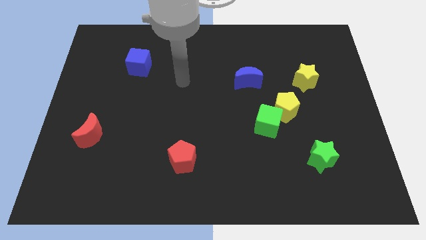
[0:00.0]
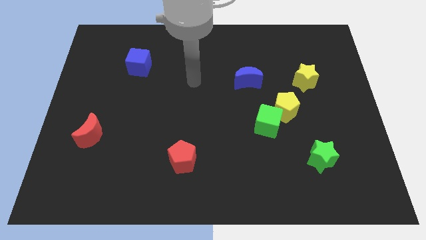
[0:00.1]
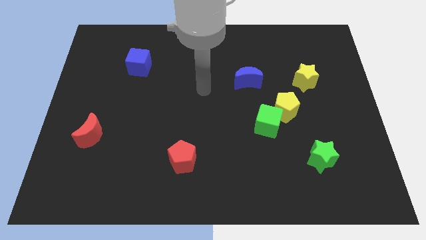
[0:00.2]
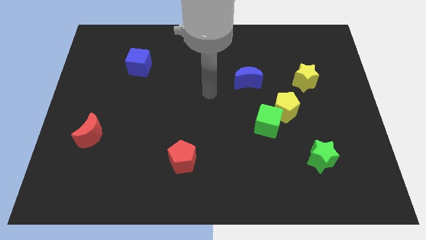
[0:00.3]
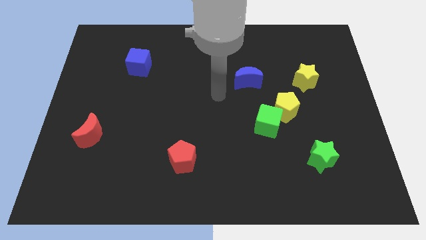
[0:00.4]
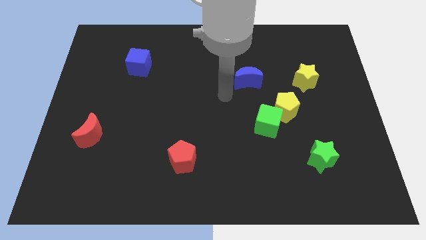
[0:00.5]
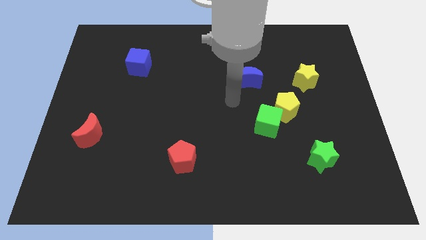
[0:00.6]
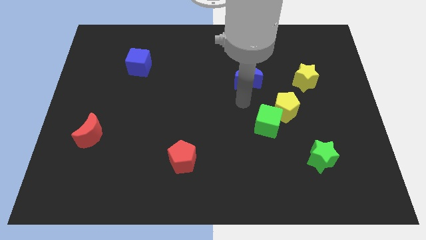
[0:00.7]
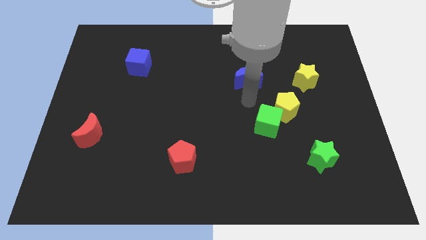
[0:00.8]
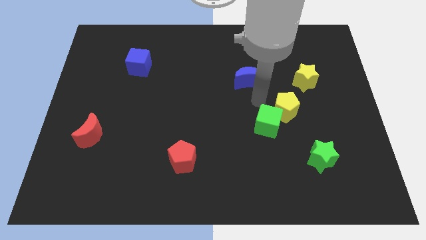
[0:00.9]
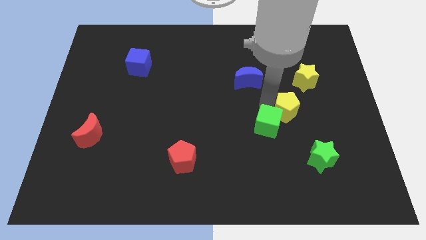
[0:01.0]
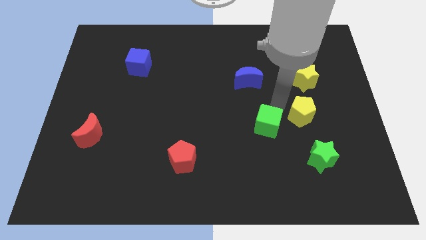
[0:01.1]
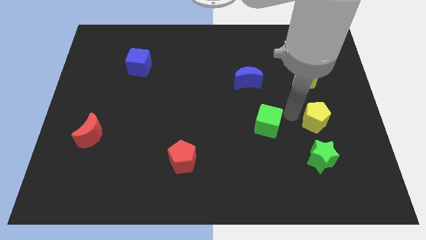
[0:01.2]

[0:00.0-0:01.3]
separate the green cube from the yellow pentagon

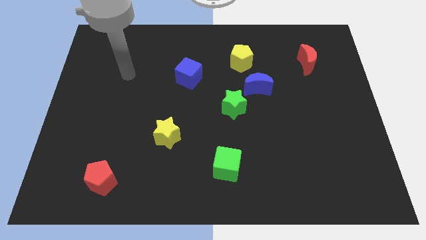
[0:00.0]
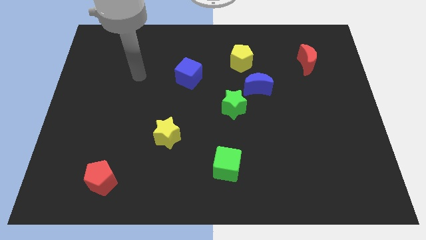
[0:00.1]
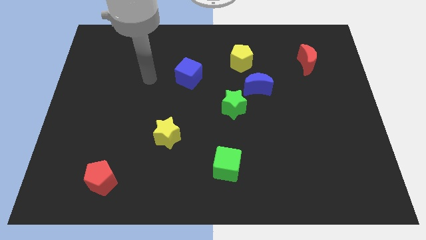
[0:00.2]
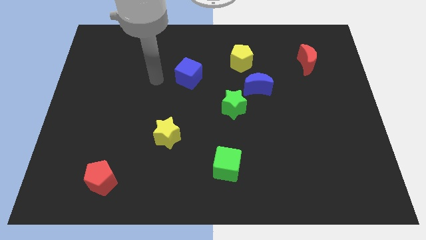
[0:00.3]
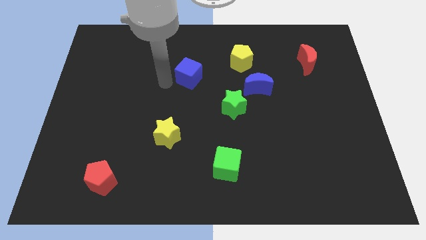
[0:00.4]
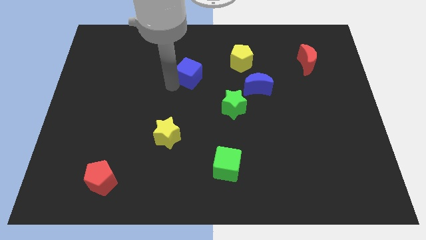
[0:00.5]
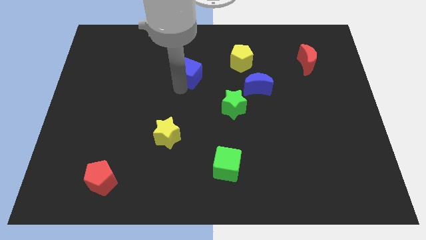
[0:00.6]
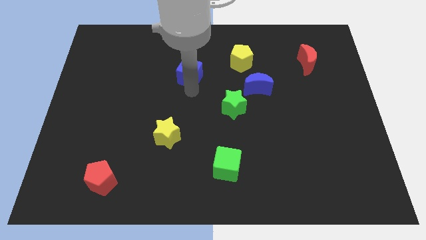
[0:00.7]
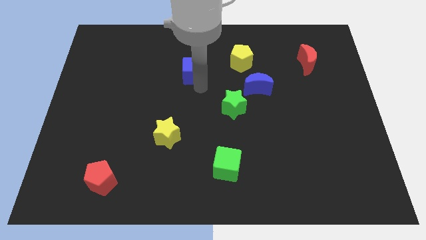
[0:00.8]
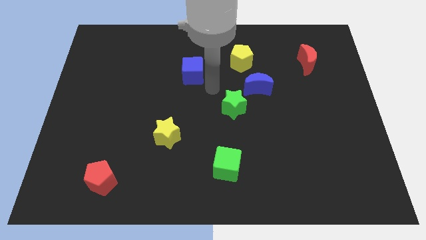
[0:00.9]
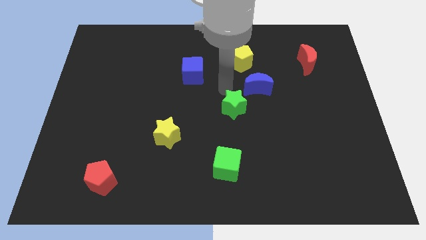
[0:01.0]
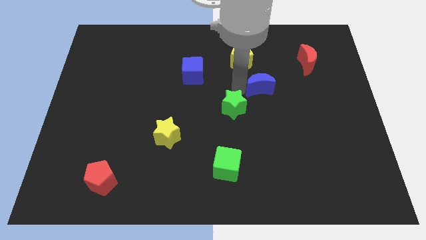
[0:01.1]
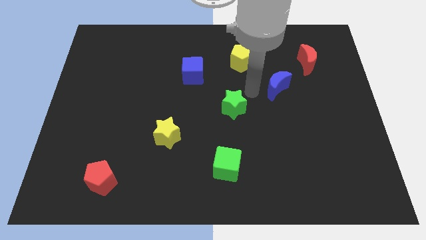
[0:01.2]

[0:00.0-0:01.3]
separate the green star from the blue moon

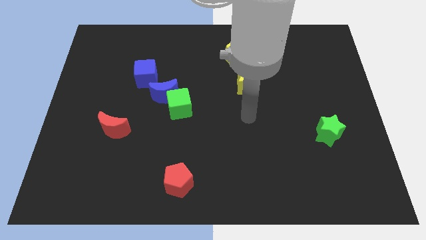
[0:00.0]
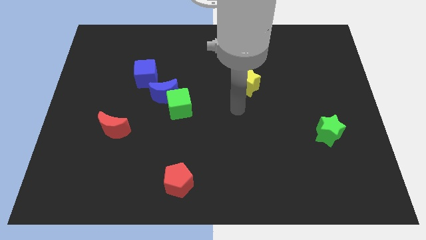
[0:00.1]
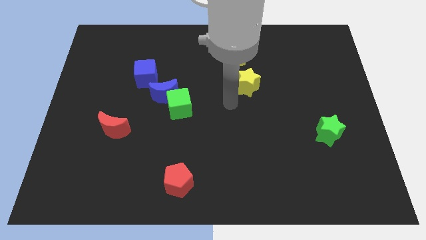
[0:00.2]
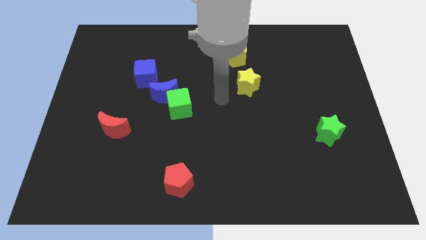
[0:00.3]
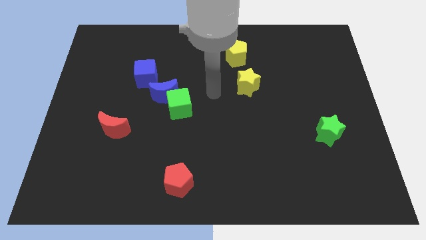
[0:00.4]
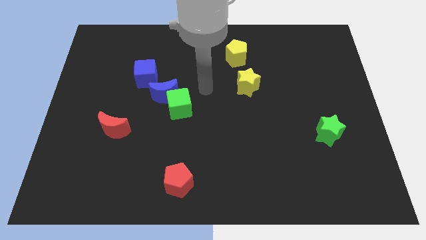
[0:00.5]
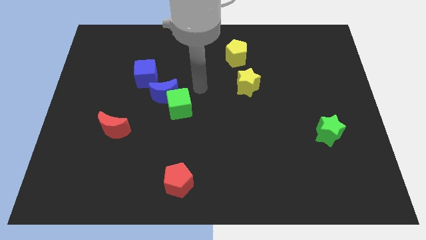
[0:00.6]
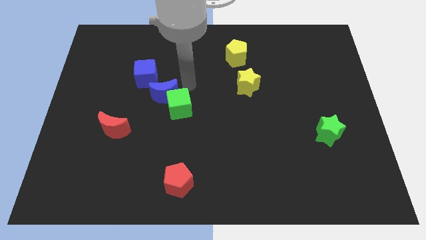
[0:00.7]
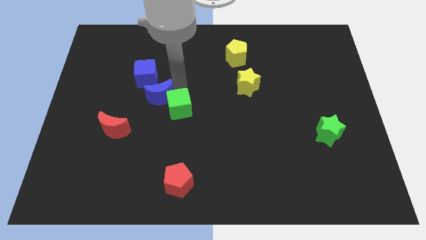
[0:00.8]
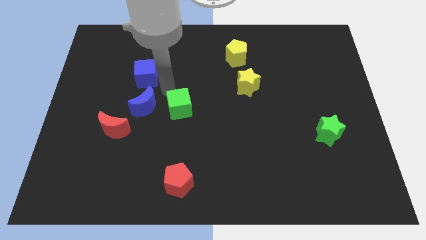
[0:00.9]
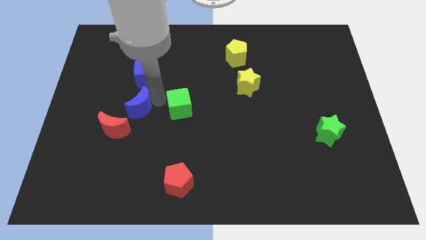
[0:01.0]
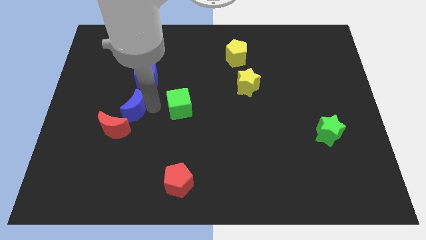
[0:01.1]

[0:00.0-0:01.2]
separate the green cube from the blue moon

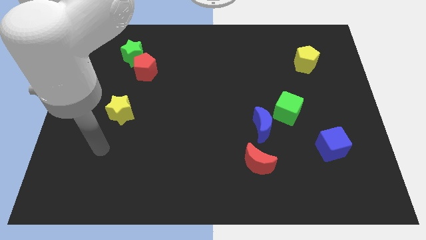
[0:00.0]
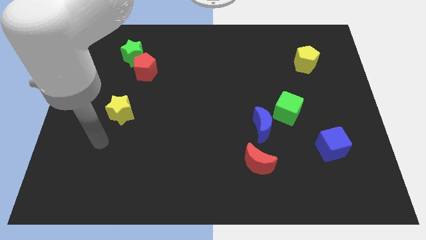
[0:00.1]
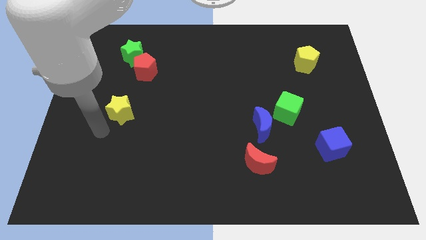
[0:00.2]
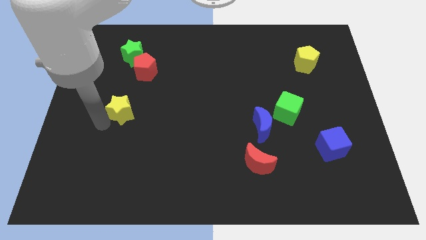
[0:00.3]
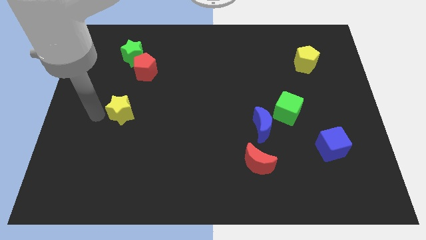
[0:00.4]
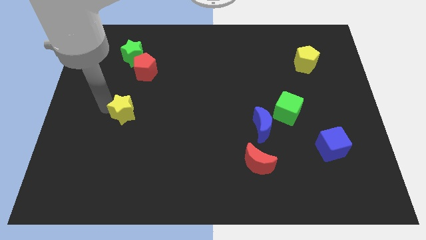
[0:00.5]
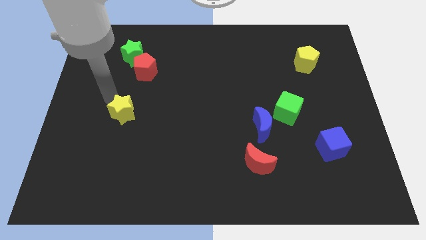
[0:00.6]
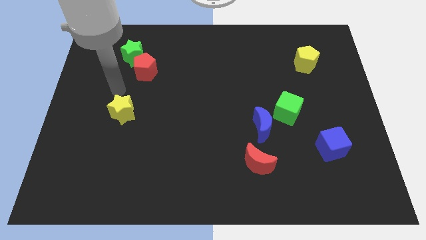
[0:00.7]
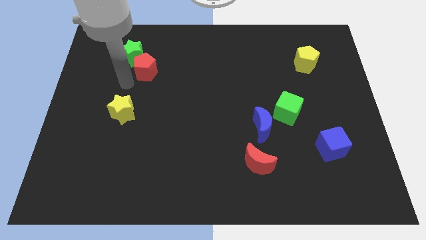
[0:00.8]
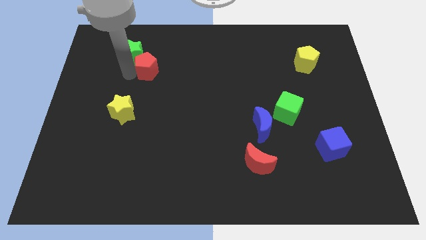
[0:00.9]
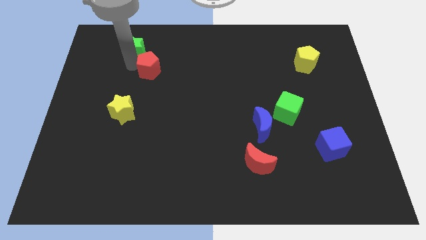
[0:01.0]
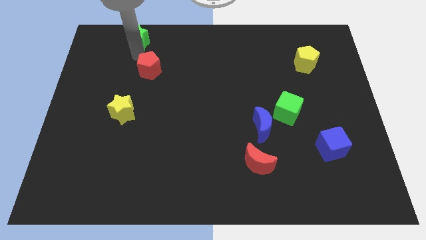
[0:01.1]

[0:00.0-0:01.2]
move the red pentagon away from the green star

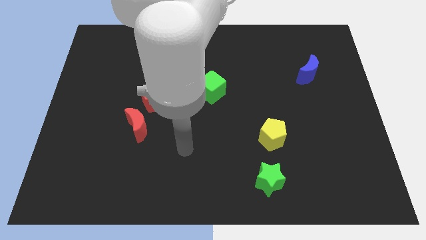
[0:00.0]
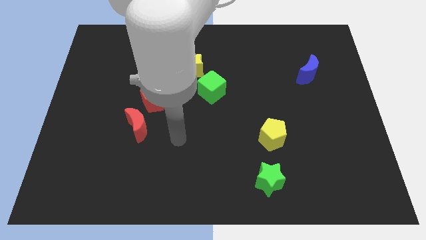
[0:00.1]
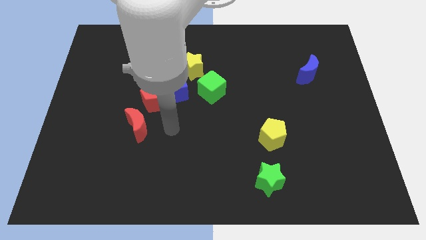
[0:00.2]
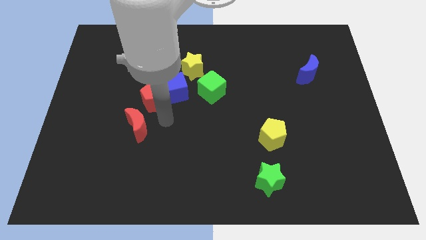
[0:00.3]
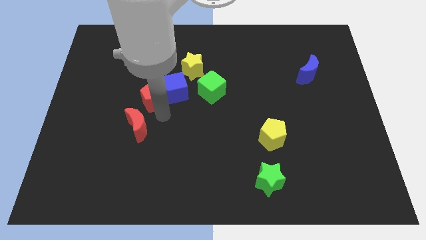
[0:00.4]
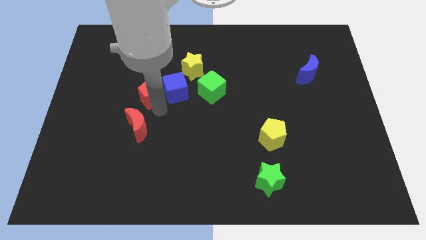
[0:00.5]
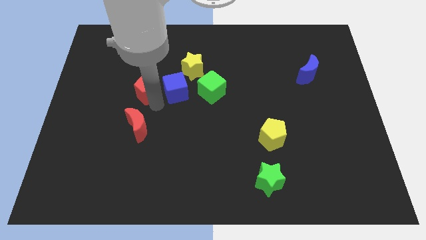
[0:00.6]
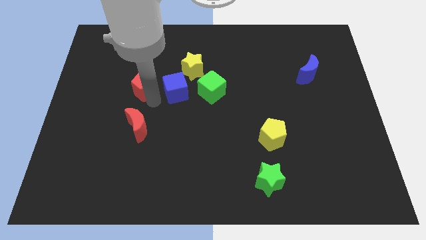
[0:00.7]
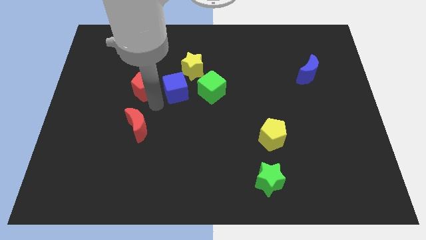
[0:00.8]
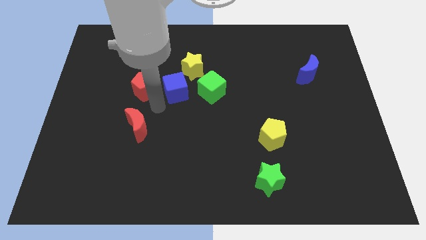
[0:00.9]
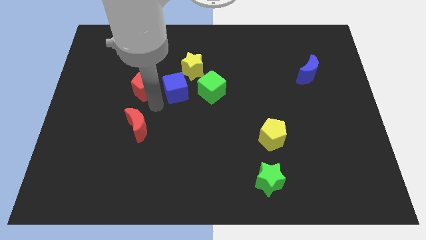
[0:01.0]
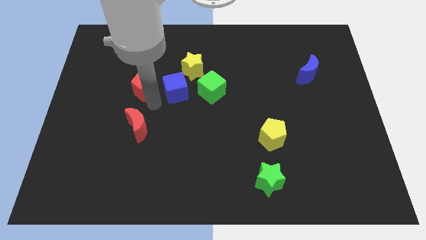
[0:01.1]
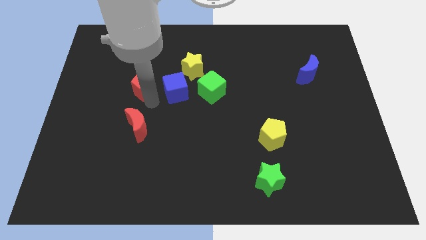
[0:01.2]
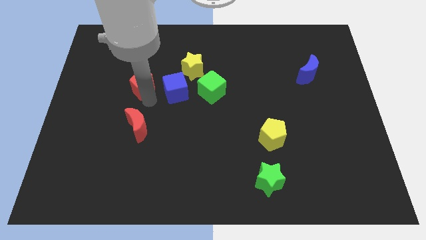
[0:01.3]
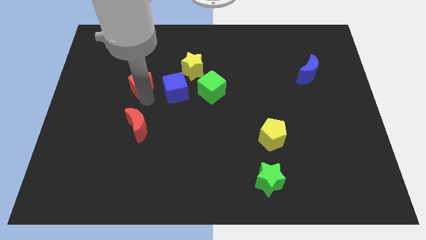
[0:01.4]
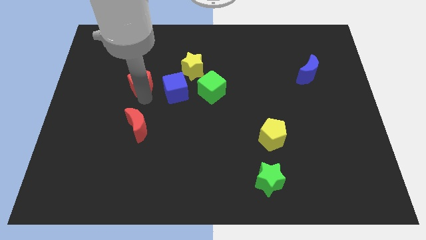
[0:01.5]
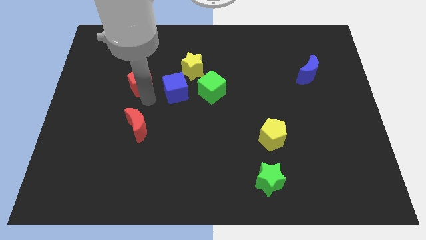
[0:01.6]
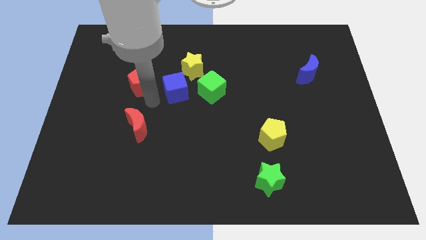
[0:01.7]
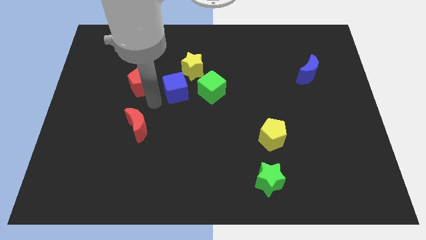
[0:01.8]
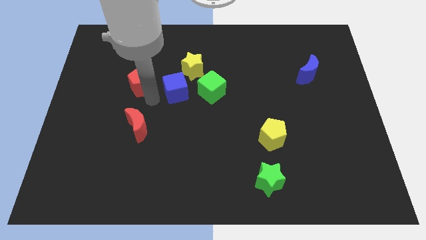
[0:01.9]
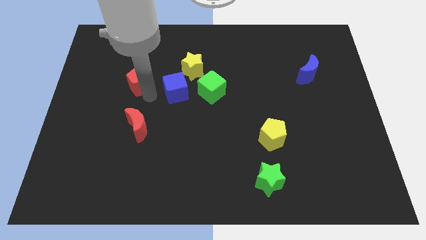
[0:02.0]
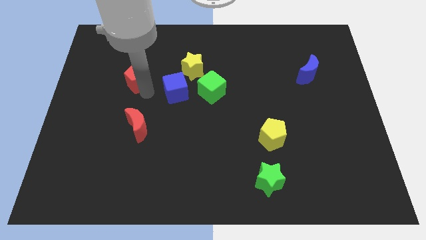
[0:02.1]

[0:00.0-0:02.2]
pull the red pentagon apart from the blue cube and red moon

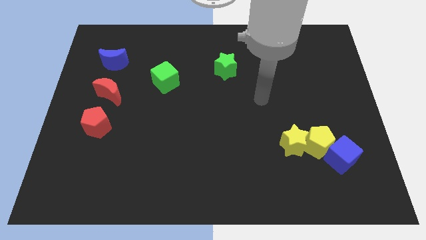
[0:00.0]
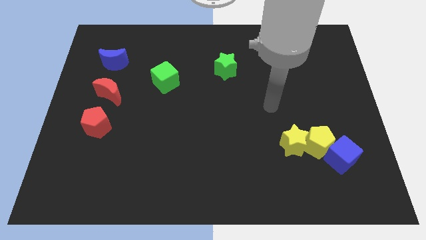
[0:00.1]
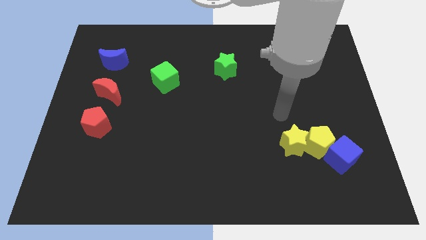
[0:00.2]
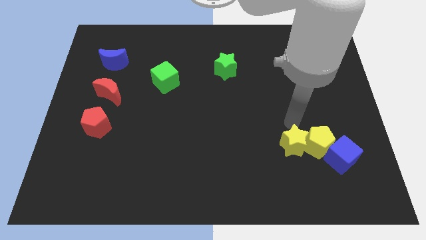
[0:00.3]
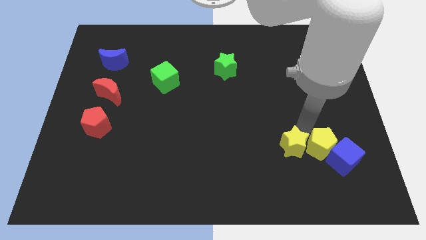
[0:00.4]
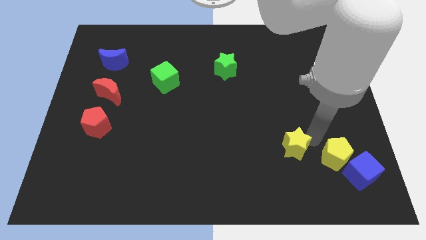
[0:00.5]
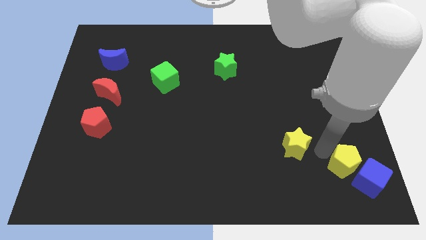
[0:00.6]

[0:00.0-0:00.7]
separate the yellow star from the yellow pentagon

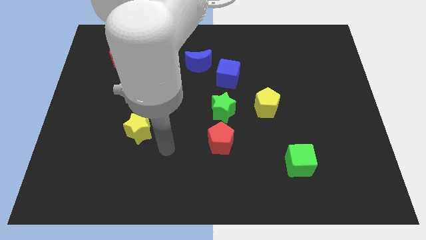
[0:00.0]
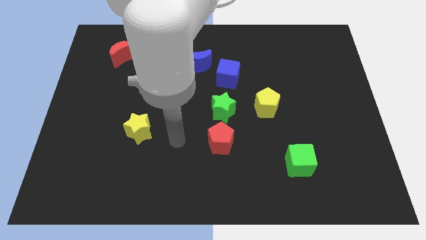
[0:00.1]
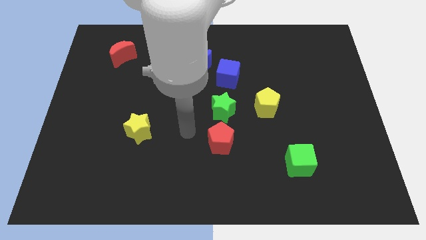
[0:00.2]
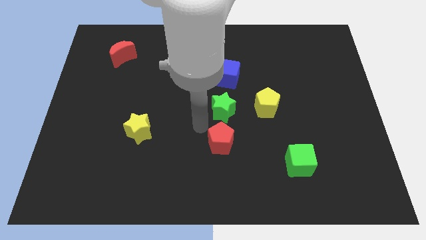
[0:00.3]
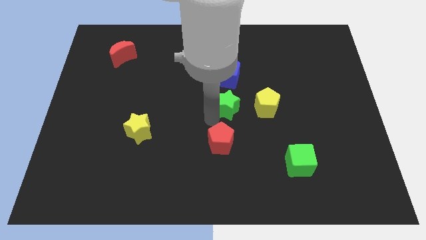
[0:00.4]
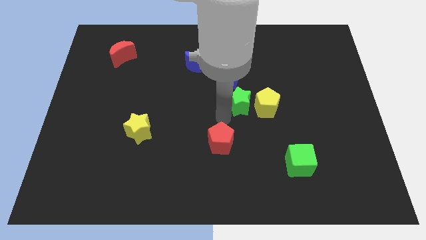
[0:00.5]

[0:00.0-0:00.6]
separate the red pentagon from the green star

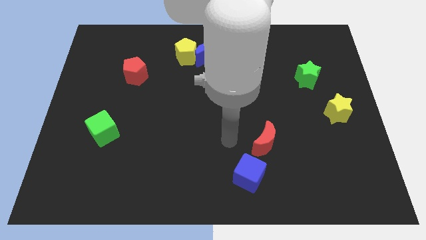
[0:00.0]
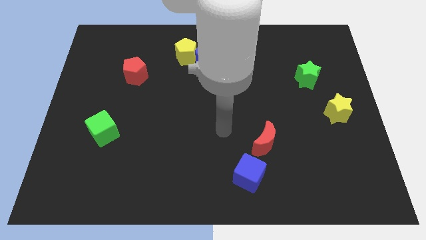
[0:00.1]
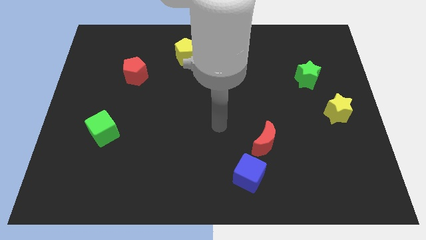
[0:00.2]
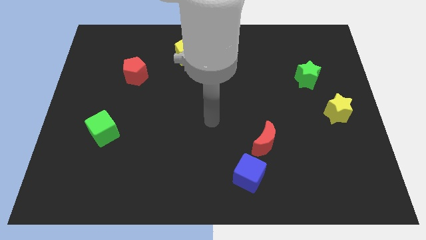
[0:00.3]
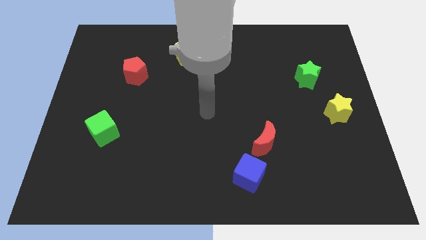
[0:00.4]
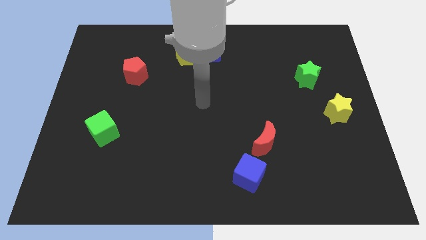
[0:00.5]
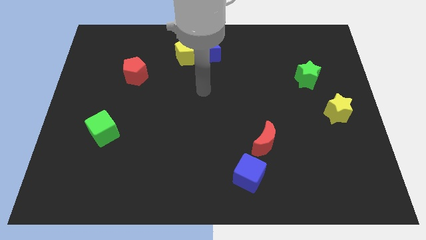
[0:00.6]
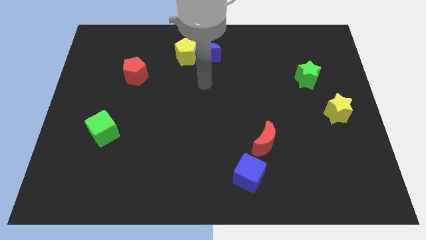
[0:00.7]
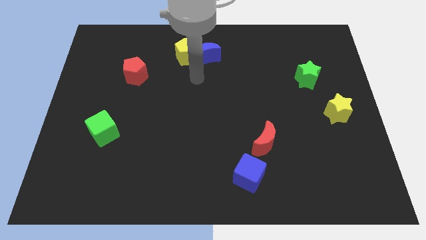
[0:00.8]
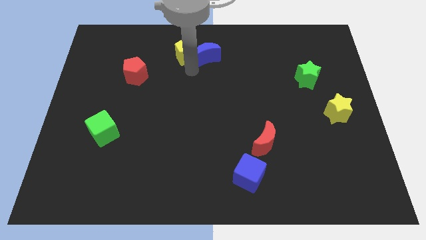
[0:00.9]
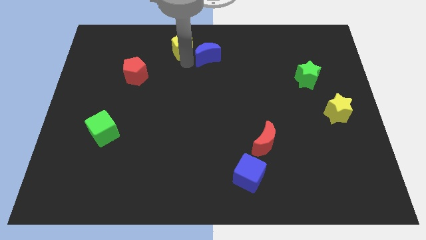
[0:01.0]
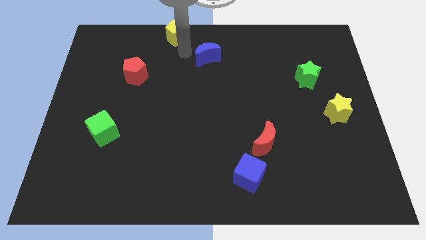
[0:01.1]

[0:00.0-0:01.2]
move the blue moon away from the yellow pentagon
